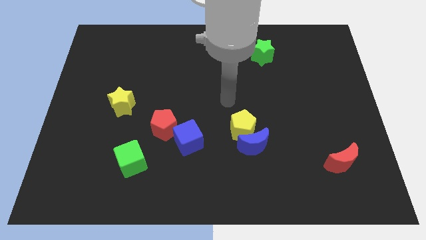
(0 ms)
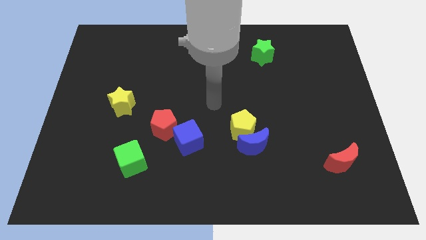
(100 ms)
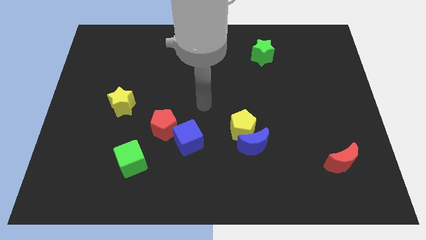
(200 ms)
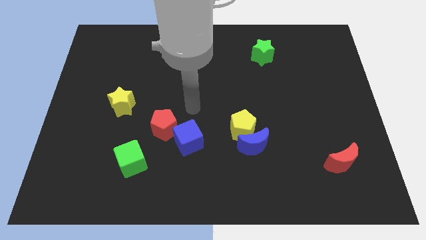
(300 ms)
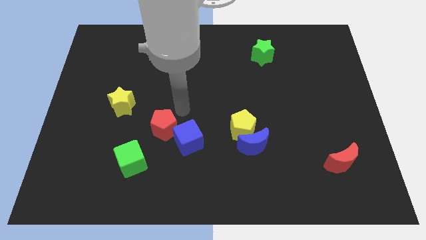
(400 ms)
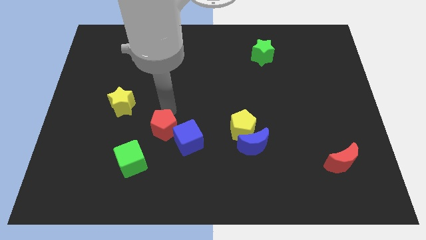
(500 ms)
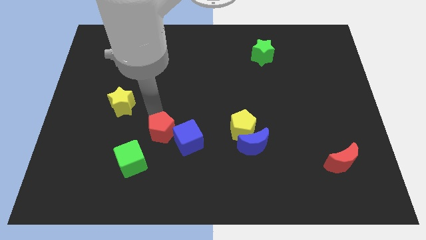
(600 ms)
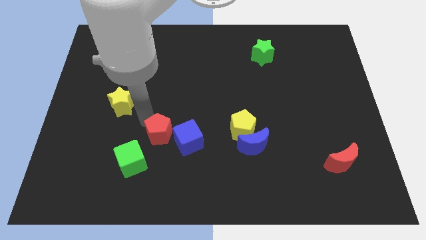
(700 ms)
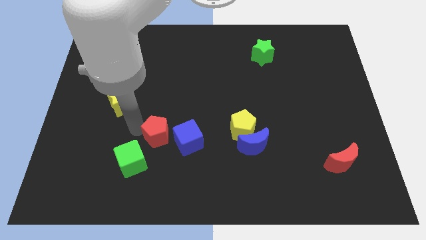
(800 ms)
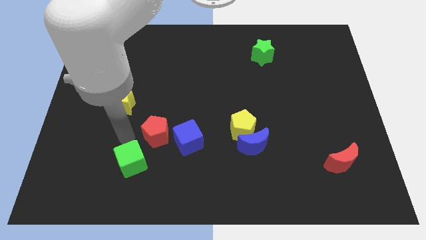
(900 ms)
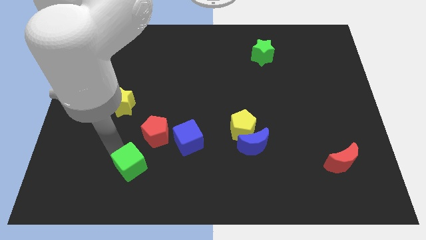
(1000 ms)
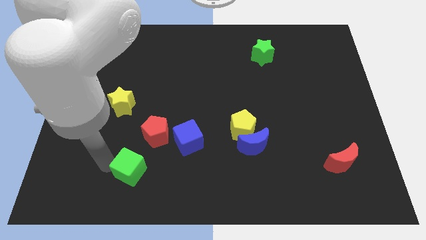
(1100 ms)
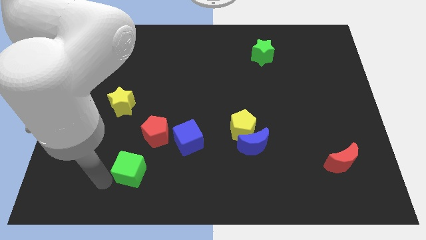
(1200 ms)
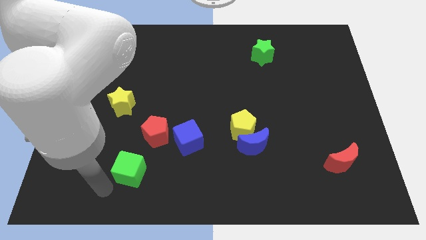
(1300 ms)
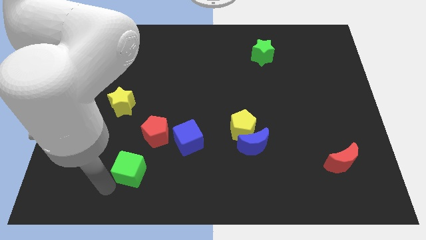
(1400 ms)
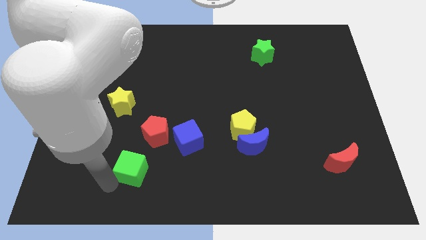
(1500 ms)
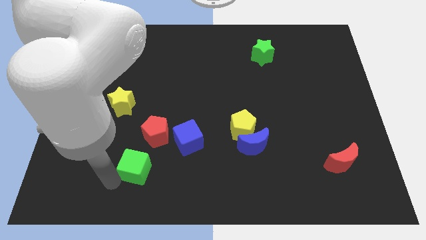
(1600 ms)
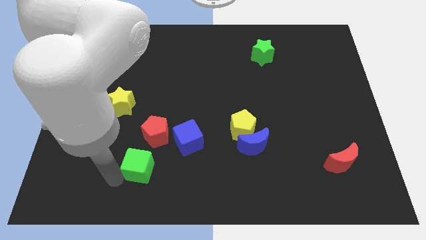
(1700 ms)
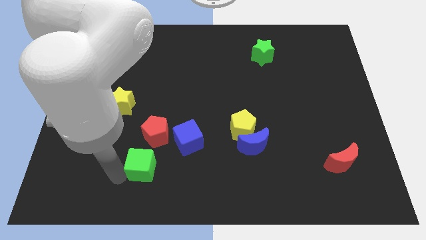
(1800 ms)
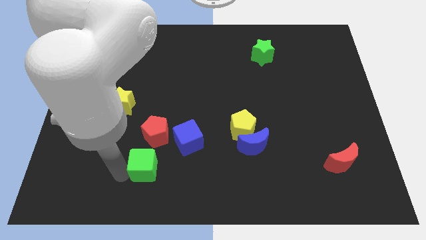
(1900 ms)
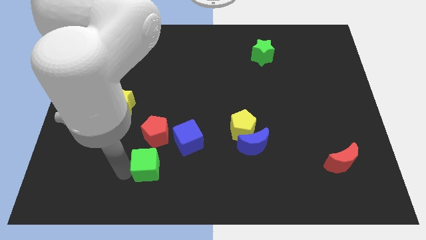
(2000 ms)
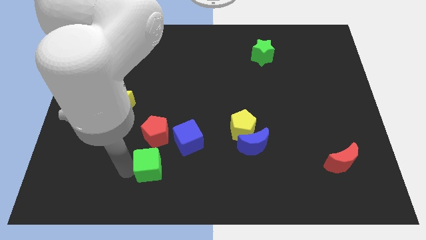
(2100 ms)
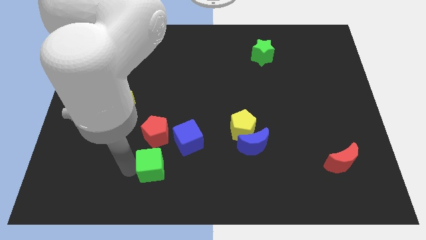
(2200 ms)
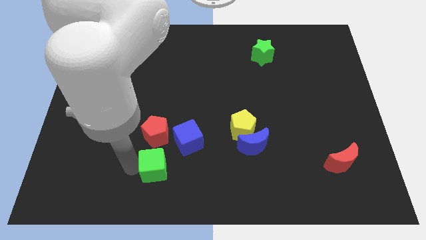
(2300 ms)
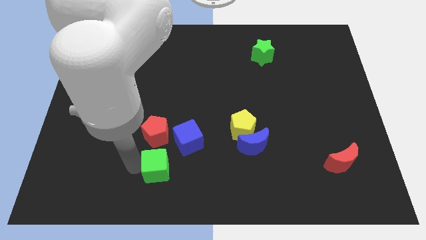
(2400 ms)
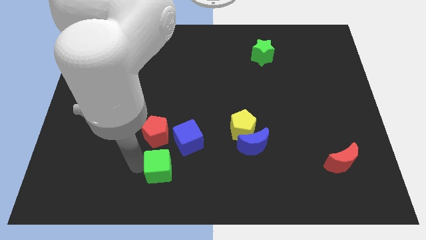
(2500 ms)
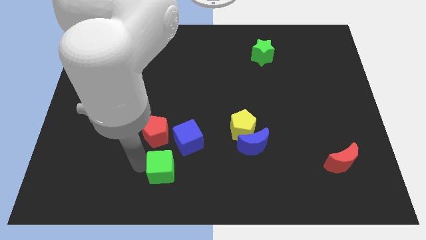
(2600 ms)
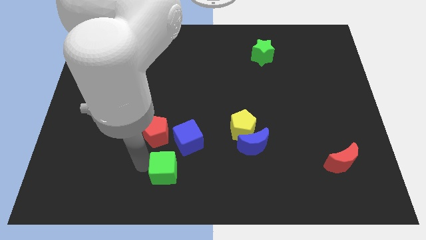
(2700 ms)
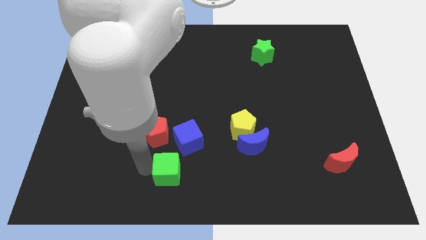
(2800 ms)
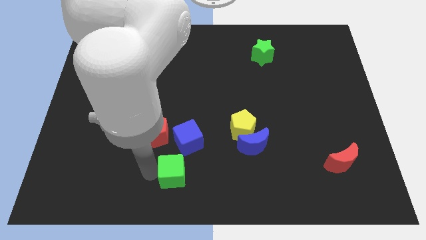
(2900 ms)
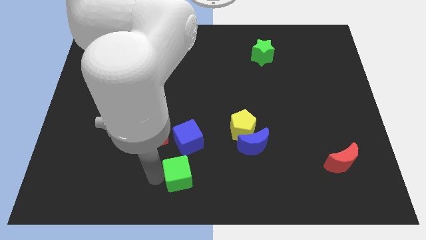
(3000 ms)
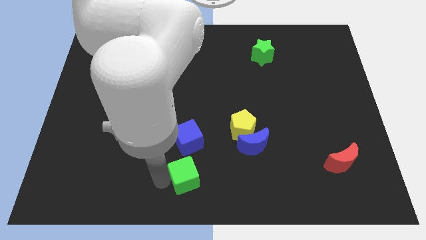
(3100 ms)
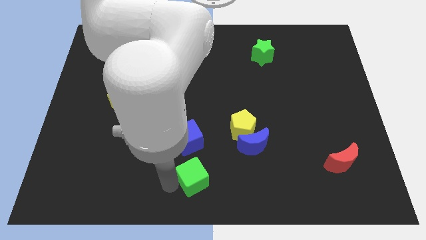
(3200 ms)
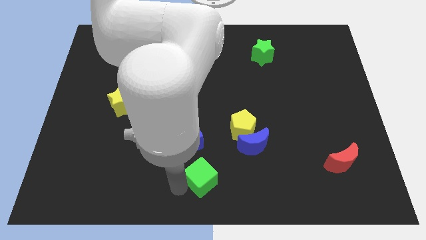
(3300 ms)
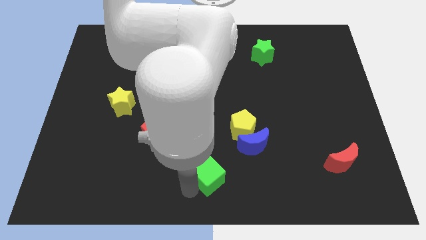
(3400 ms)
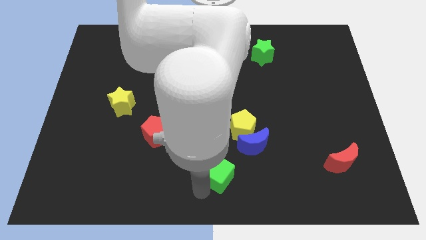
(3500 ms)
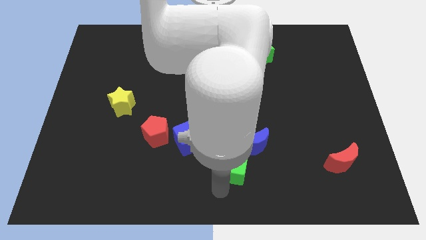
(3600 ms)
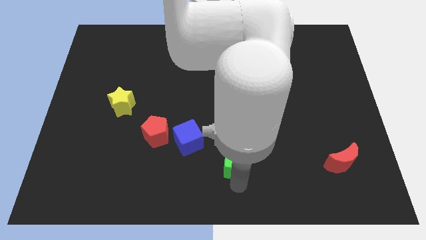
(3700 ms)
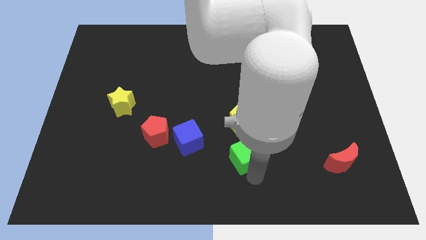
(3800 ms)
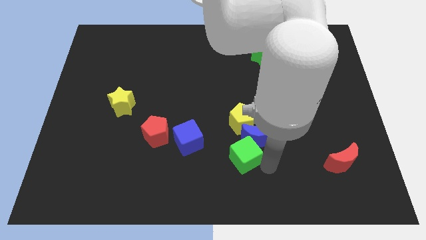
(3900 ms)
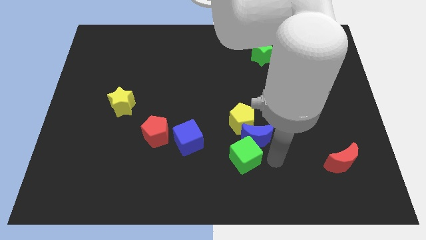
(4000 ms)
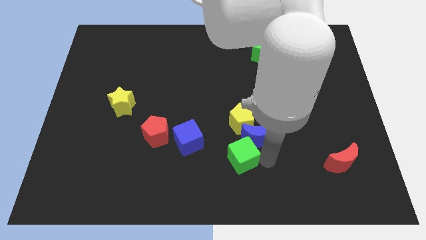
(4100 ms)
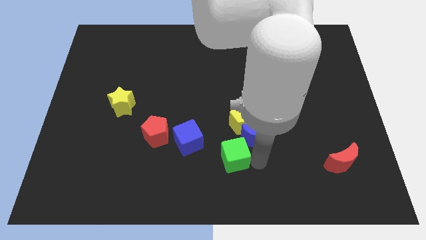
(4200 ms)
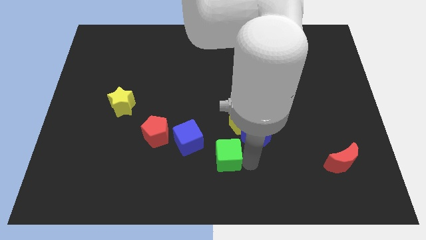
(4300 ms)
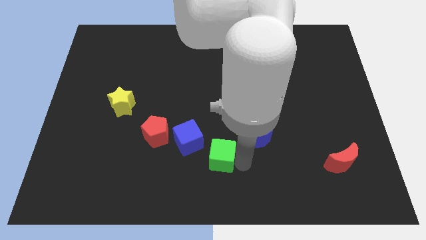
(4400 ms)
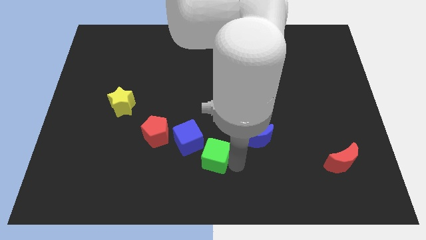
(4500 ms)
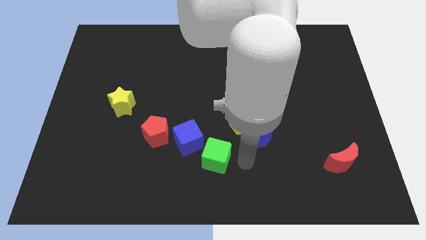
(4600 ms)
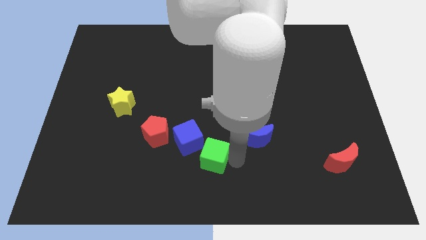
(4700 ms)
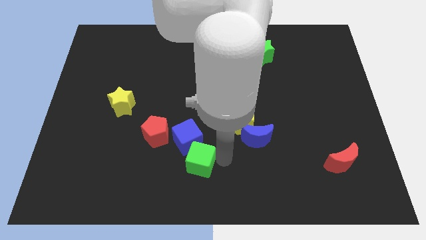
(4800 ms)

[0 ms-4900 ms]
slide the green cube next to the blue cube

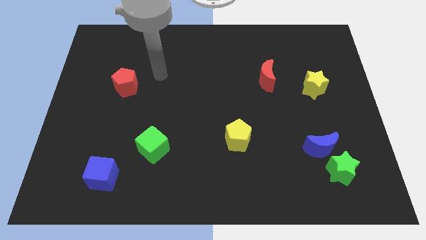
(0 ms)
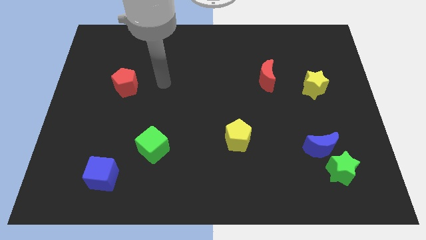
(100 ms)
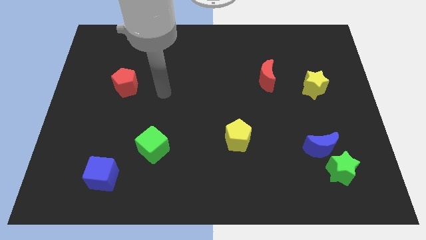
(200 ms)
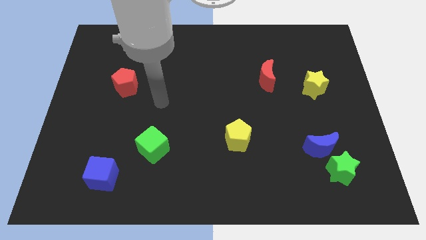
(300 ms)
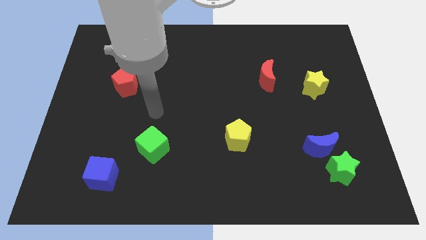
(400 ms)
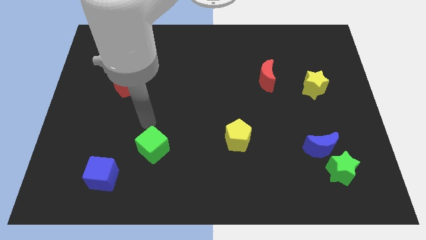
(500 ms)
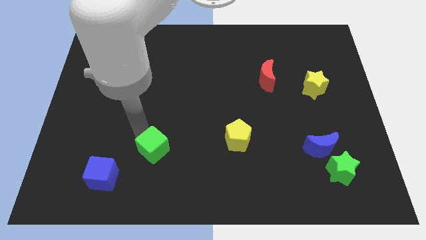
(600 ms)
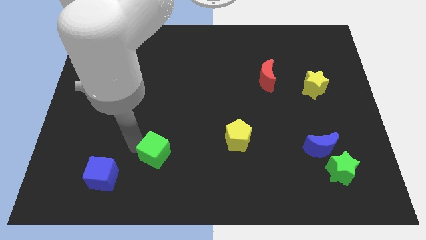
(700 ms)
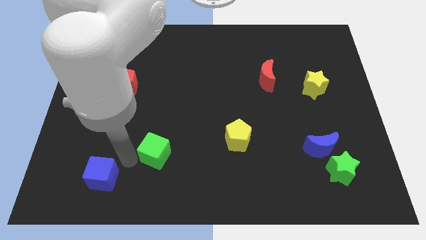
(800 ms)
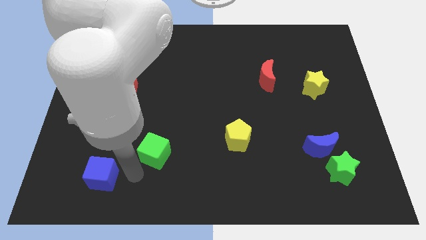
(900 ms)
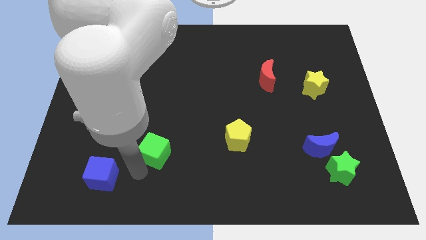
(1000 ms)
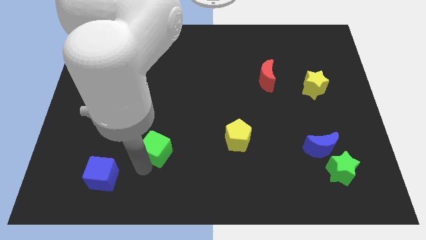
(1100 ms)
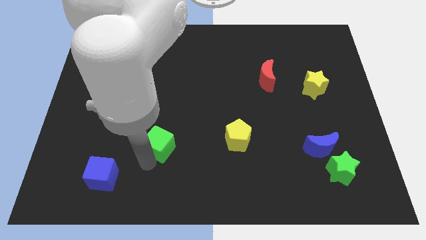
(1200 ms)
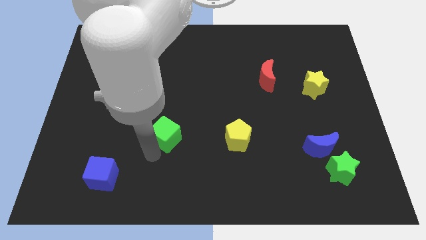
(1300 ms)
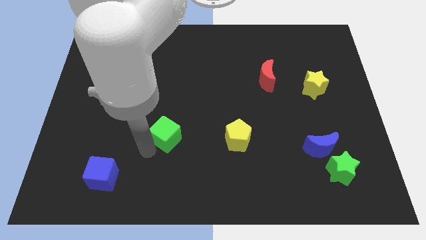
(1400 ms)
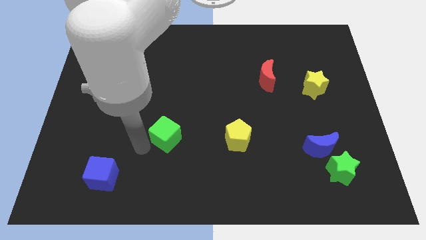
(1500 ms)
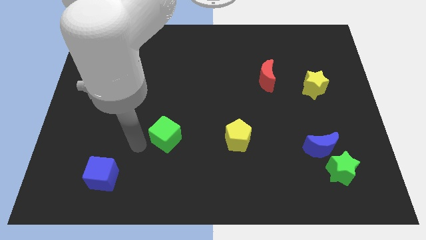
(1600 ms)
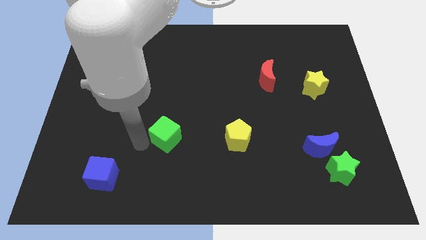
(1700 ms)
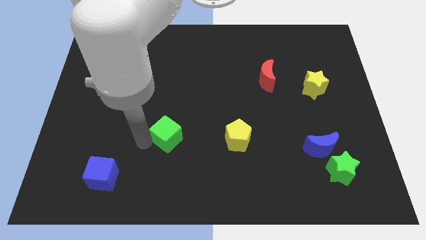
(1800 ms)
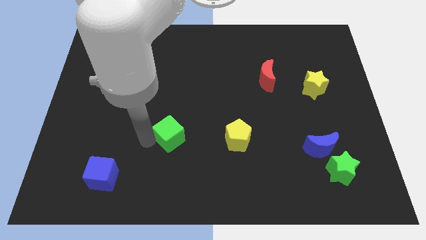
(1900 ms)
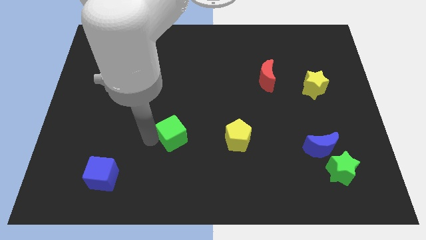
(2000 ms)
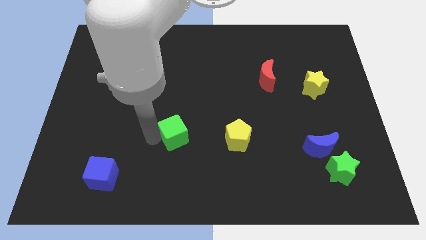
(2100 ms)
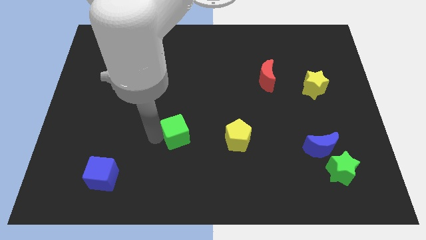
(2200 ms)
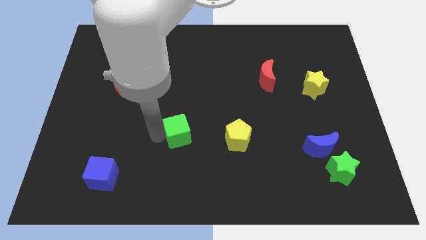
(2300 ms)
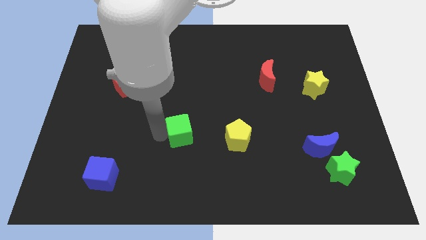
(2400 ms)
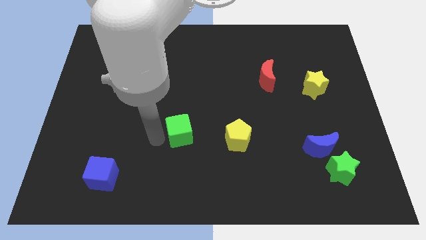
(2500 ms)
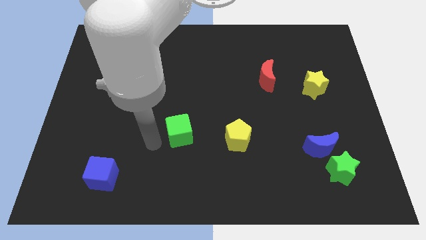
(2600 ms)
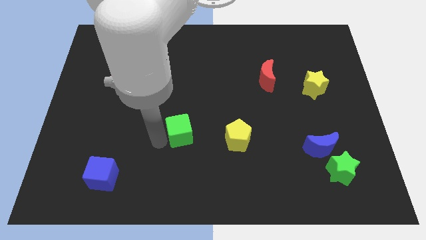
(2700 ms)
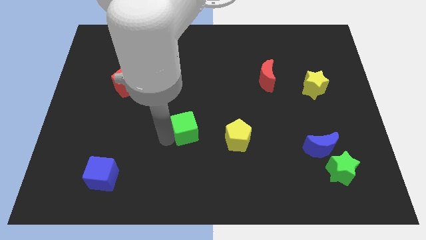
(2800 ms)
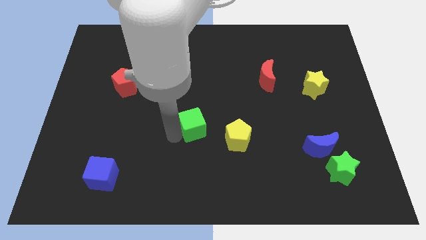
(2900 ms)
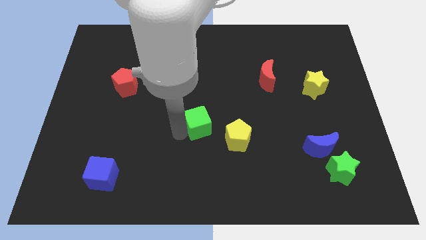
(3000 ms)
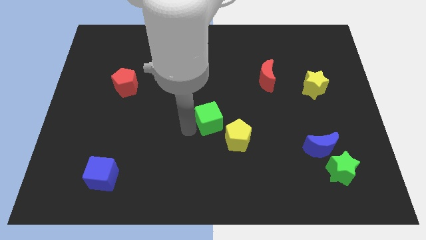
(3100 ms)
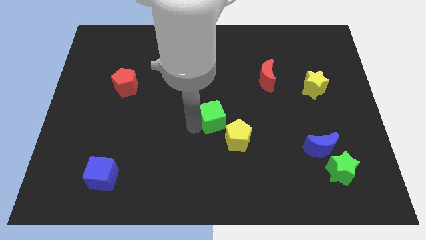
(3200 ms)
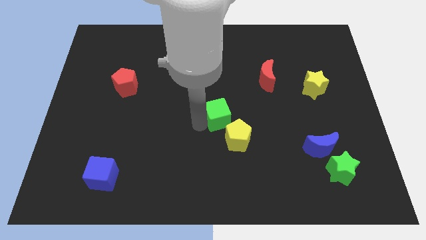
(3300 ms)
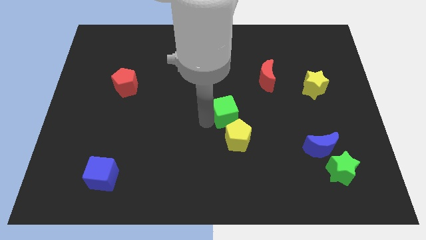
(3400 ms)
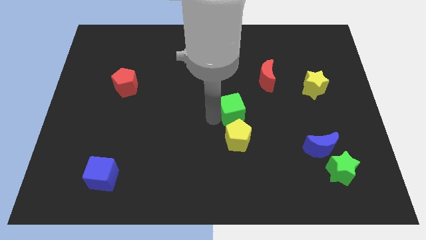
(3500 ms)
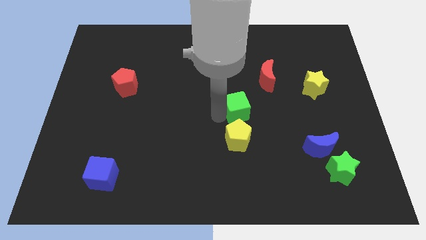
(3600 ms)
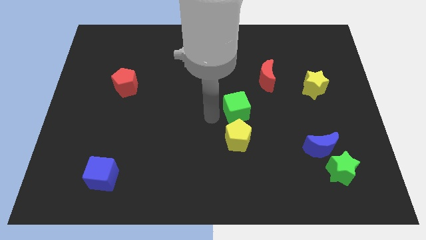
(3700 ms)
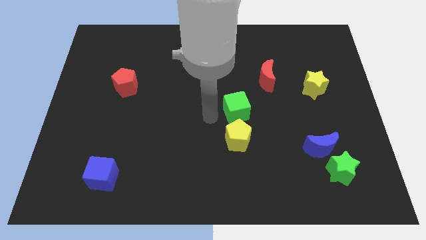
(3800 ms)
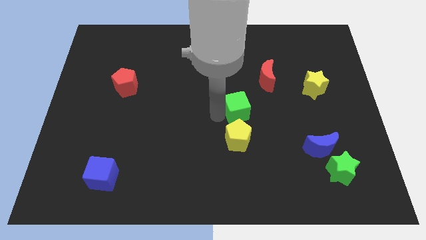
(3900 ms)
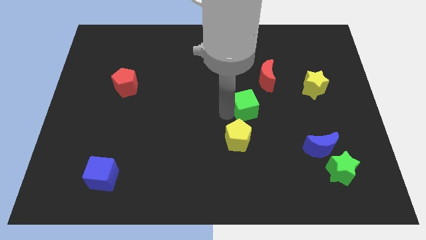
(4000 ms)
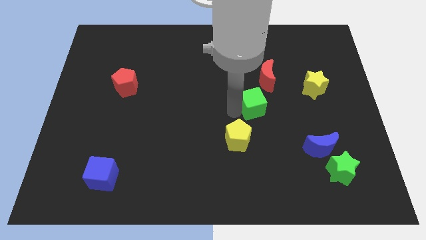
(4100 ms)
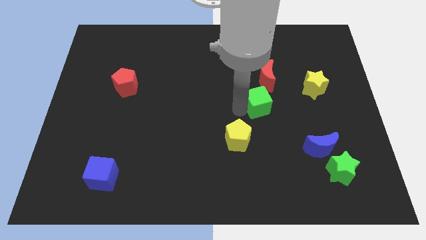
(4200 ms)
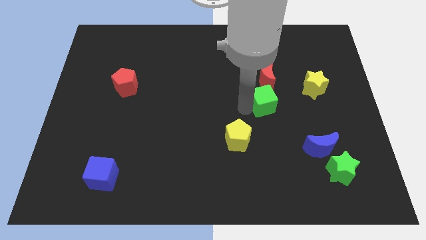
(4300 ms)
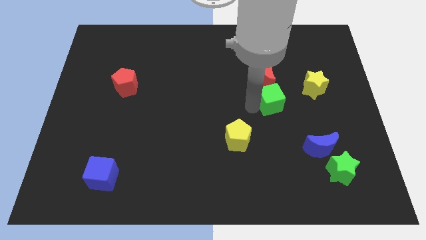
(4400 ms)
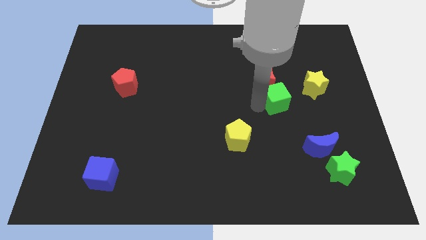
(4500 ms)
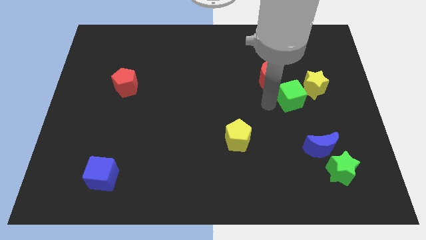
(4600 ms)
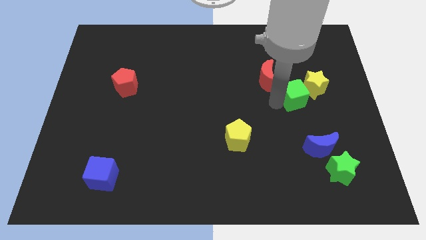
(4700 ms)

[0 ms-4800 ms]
slide the green cube to the yellow star
